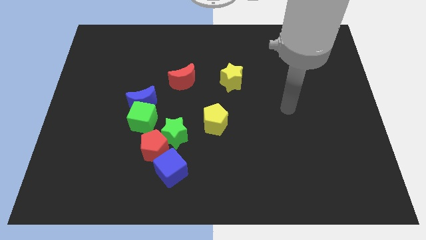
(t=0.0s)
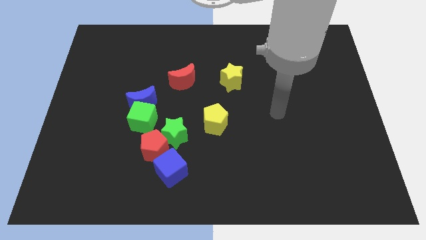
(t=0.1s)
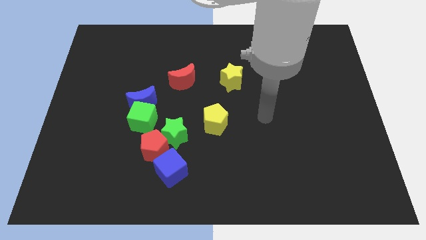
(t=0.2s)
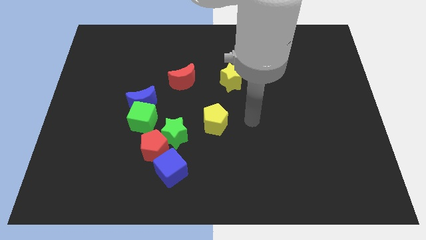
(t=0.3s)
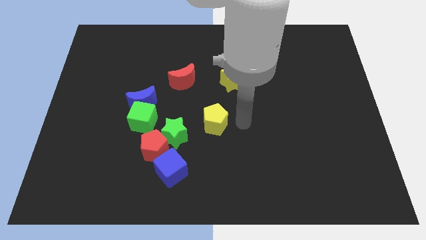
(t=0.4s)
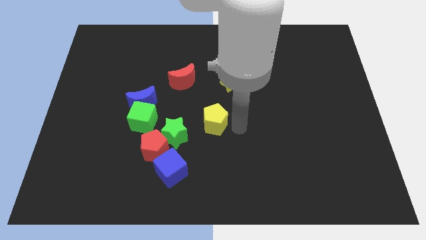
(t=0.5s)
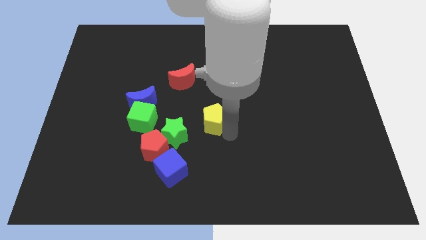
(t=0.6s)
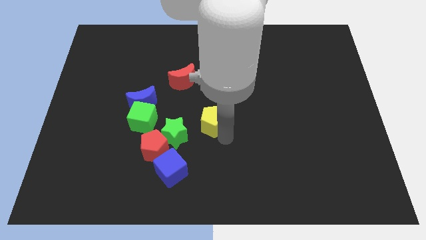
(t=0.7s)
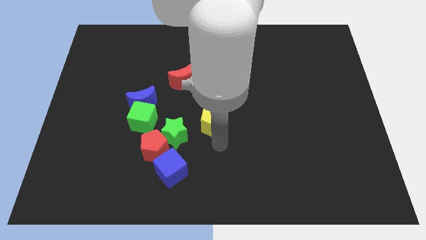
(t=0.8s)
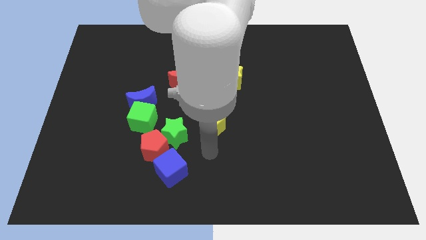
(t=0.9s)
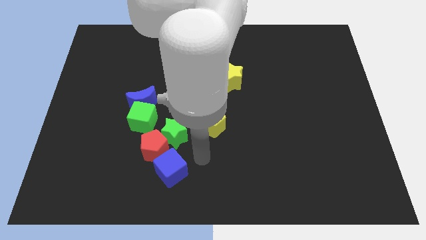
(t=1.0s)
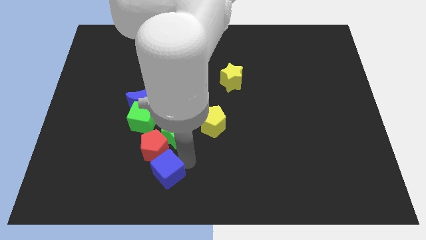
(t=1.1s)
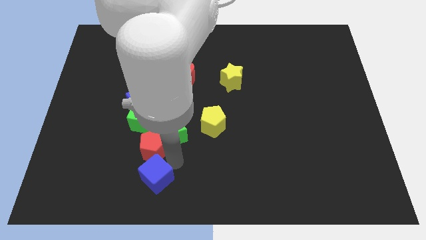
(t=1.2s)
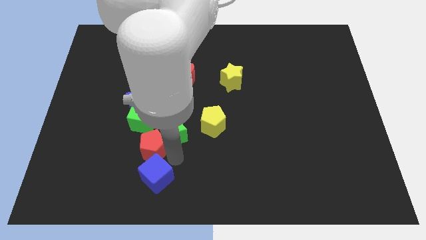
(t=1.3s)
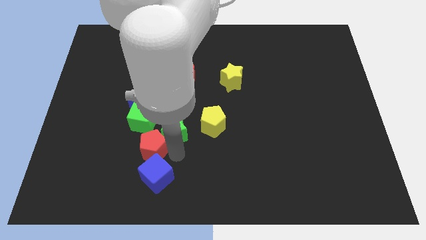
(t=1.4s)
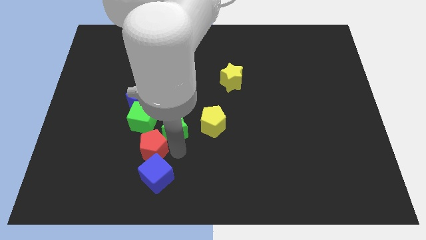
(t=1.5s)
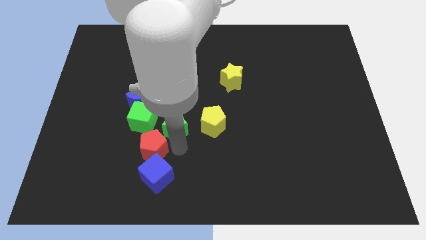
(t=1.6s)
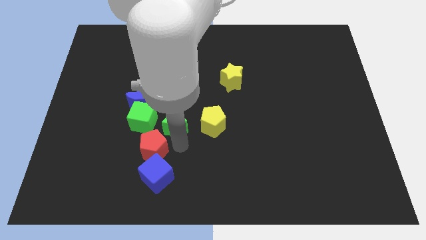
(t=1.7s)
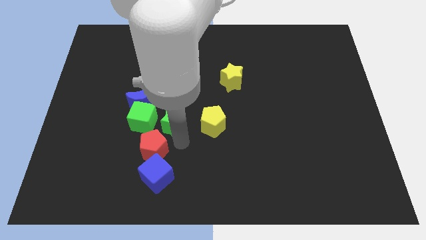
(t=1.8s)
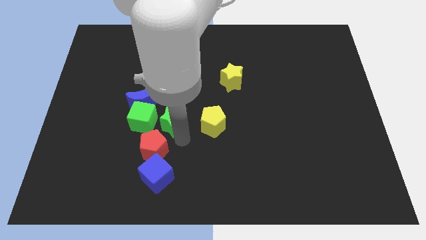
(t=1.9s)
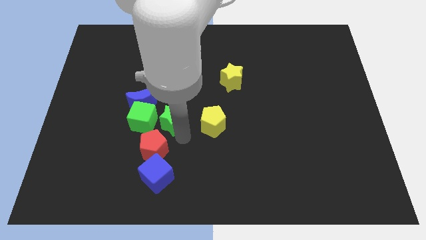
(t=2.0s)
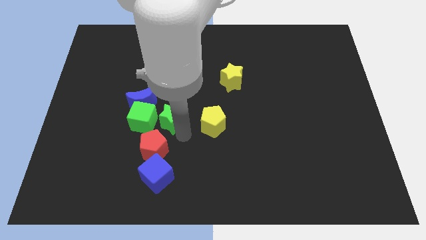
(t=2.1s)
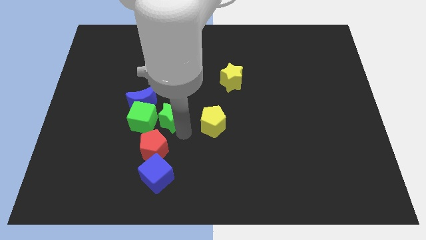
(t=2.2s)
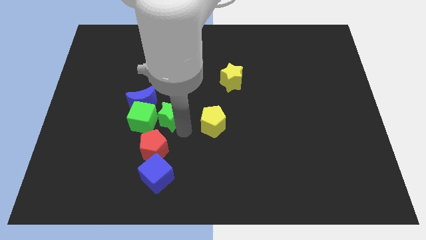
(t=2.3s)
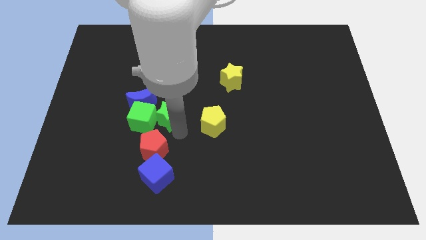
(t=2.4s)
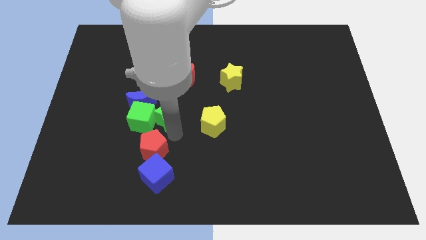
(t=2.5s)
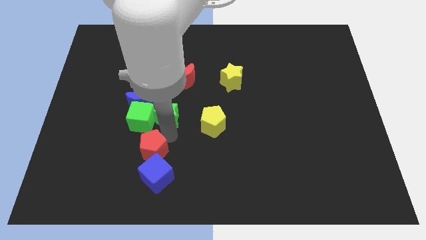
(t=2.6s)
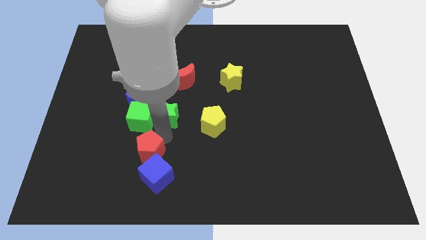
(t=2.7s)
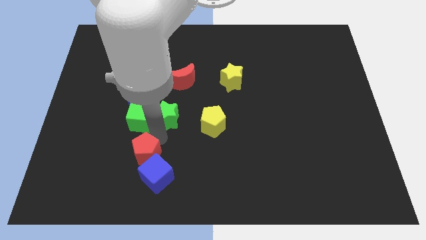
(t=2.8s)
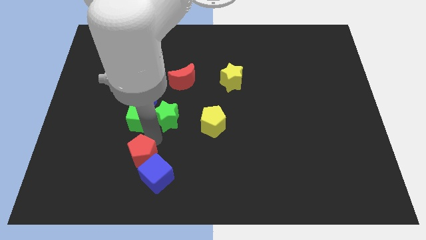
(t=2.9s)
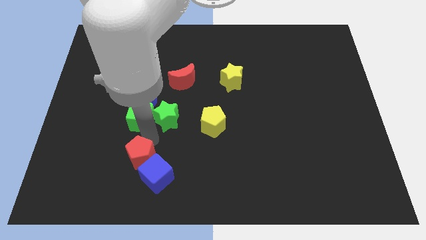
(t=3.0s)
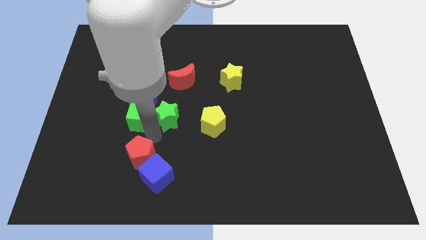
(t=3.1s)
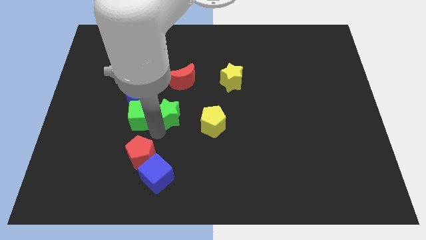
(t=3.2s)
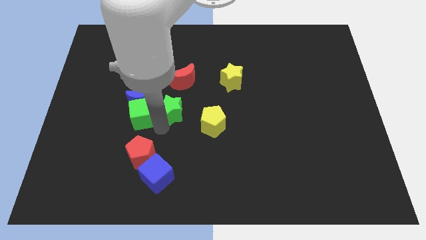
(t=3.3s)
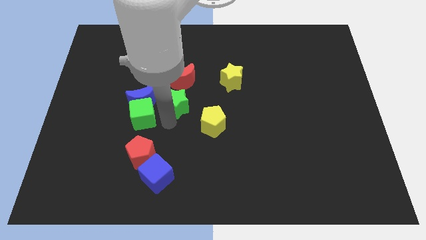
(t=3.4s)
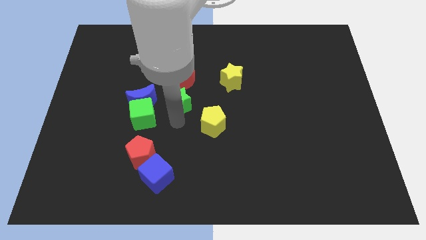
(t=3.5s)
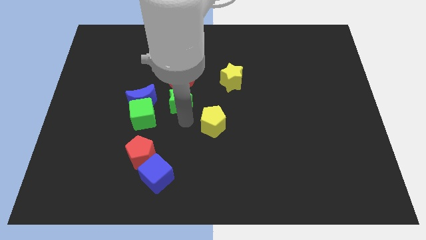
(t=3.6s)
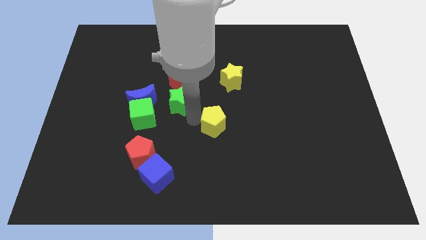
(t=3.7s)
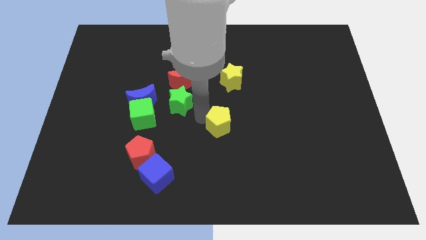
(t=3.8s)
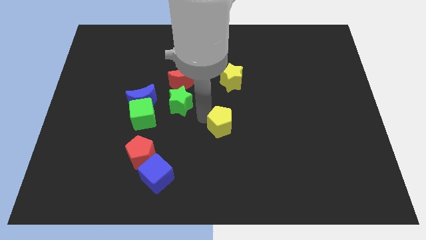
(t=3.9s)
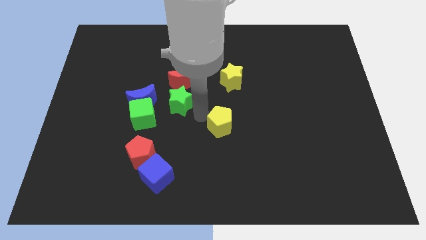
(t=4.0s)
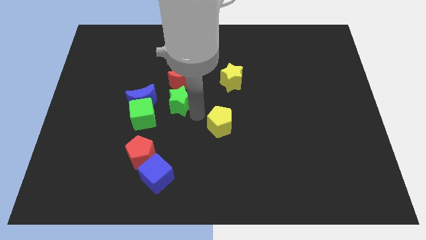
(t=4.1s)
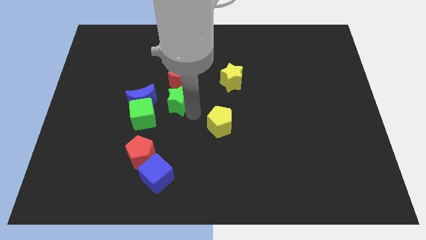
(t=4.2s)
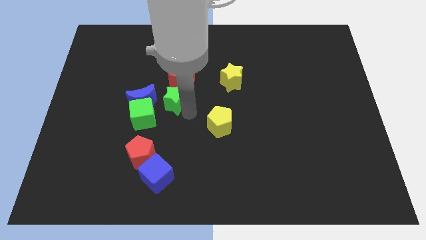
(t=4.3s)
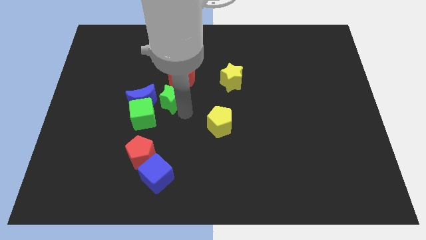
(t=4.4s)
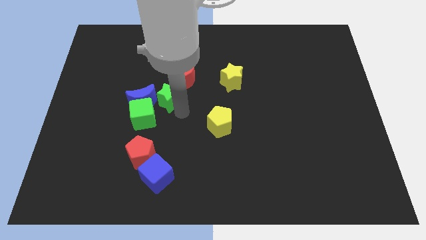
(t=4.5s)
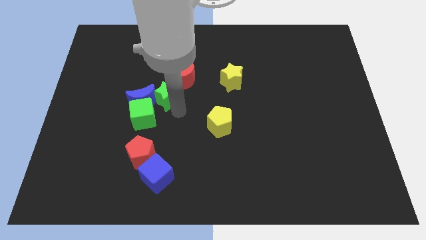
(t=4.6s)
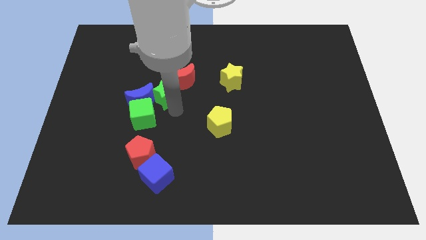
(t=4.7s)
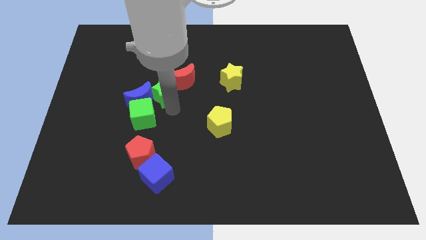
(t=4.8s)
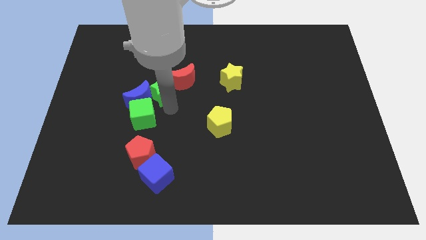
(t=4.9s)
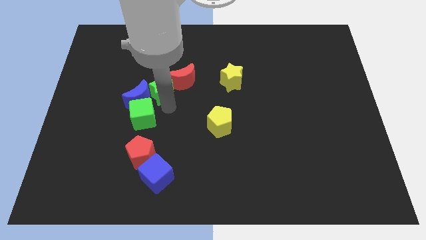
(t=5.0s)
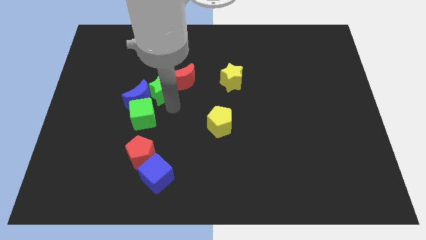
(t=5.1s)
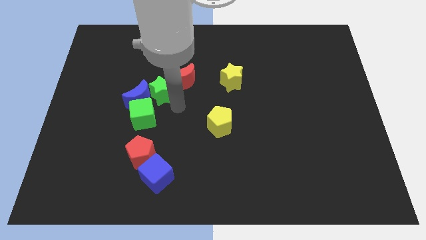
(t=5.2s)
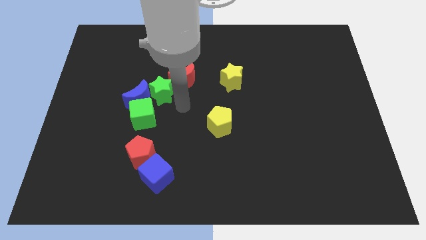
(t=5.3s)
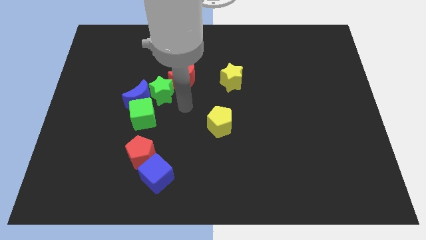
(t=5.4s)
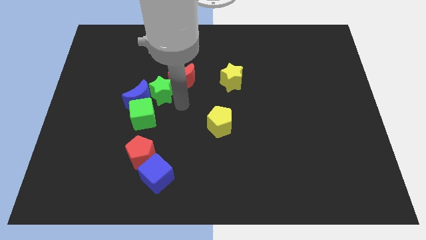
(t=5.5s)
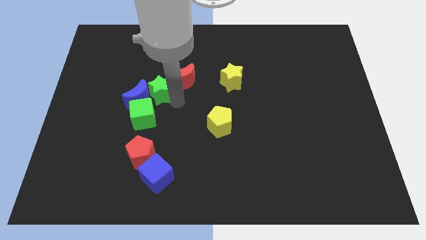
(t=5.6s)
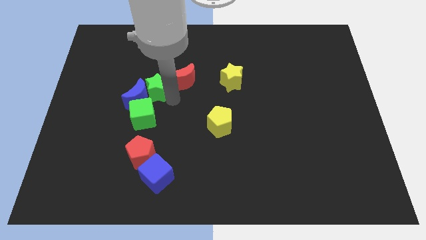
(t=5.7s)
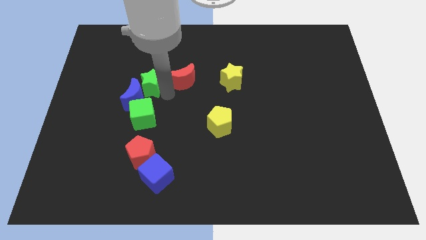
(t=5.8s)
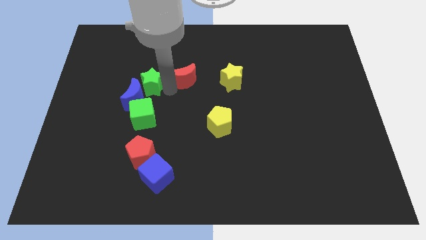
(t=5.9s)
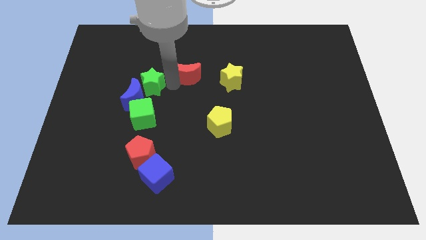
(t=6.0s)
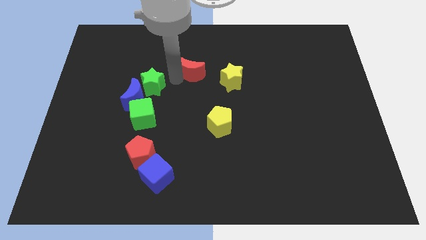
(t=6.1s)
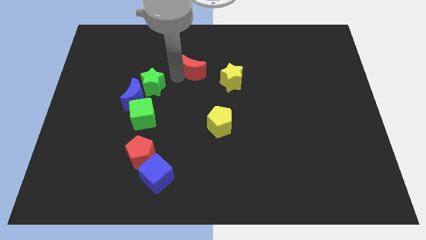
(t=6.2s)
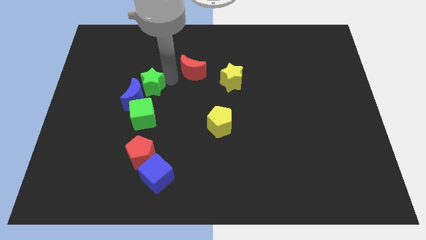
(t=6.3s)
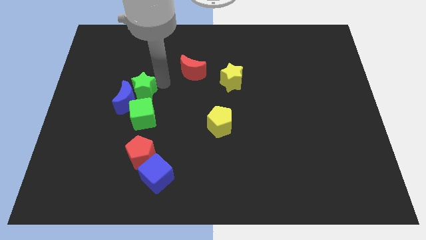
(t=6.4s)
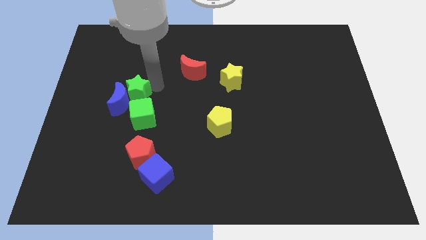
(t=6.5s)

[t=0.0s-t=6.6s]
move the green star diagonally up and to the left of the green cube
